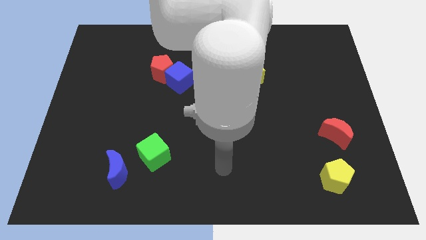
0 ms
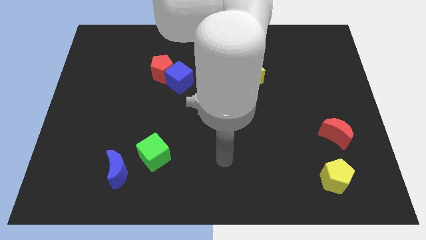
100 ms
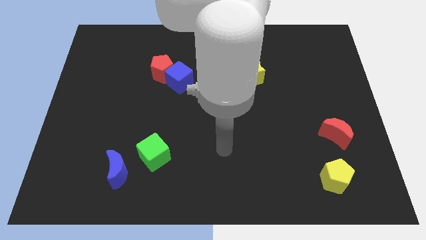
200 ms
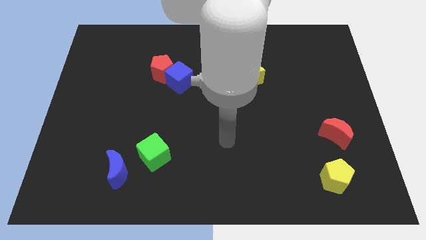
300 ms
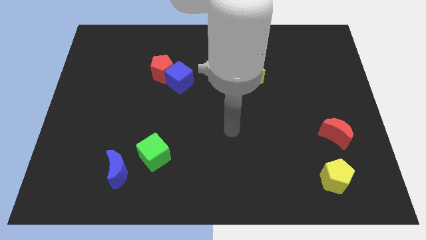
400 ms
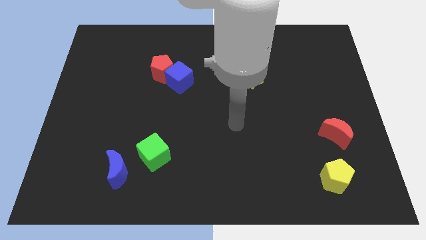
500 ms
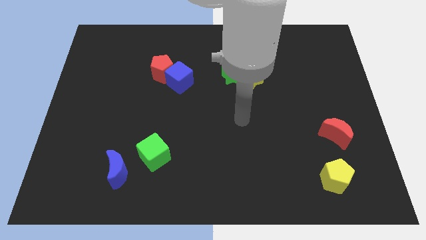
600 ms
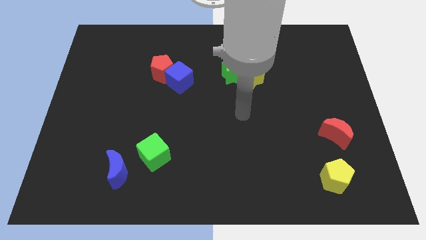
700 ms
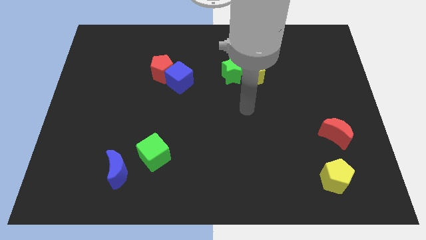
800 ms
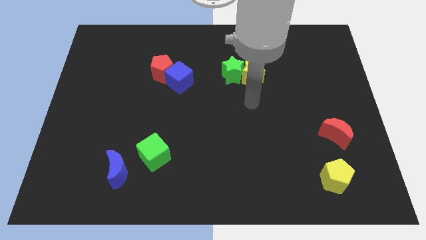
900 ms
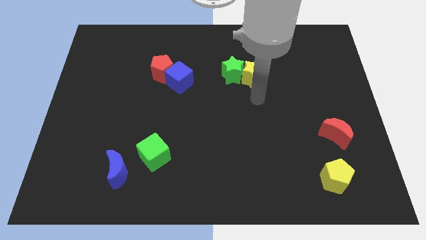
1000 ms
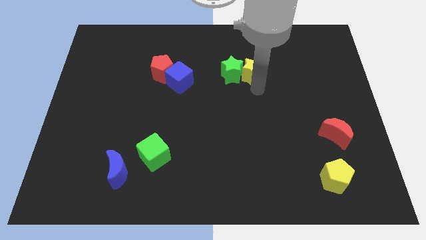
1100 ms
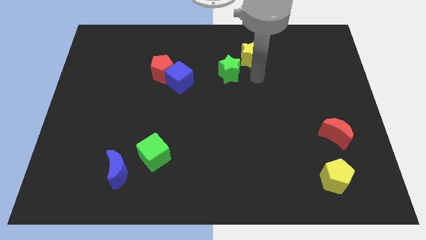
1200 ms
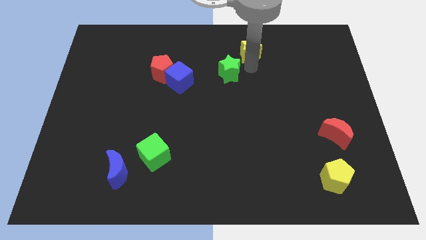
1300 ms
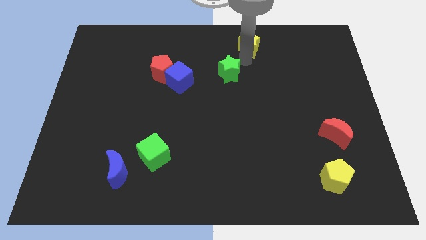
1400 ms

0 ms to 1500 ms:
pull the green star apart from the yellow star

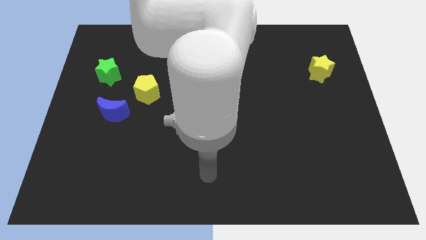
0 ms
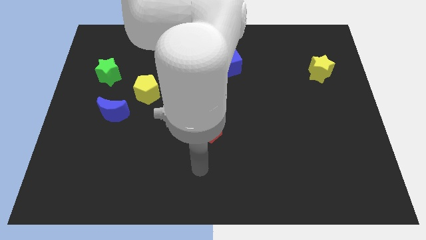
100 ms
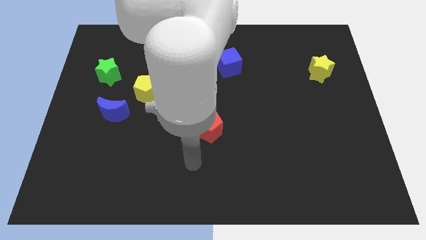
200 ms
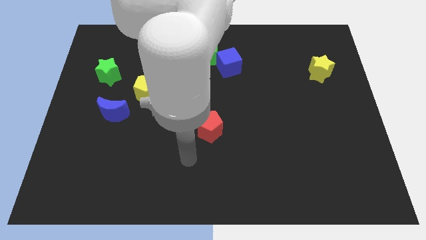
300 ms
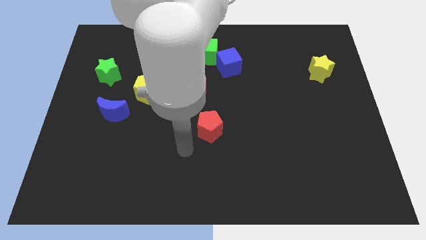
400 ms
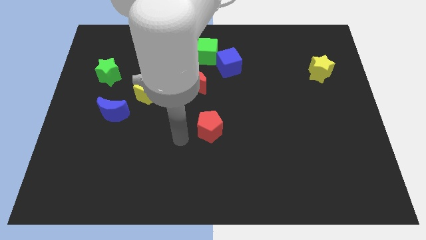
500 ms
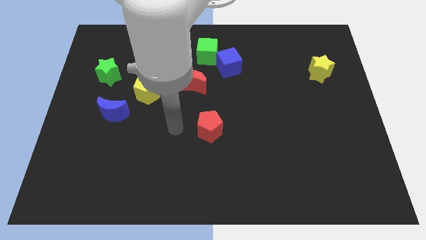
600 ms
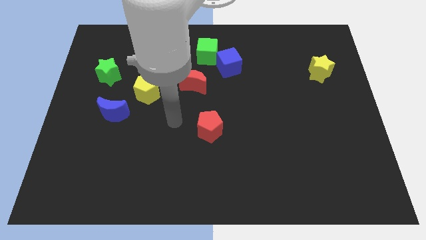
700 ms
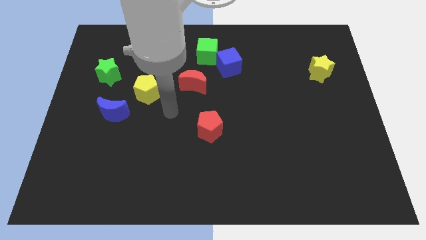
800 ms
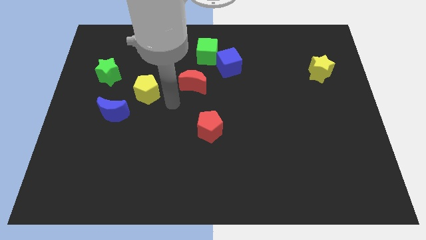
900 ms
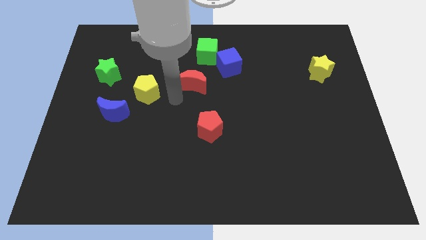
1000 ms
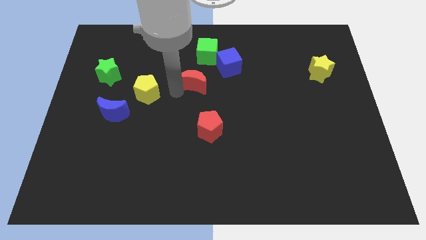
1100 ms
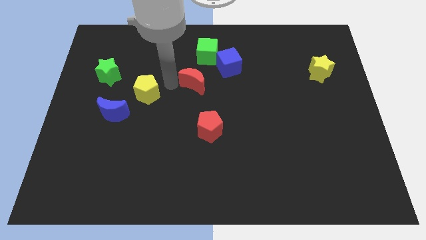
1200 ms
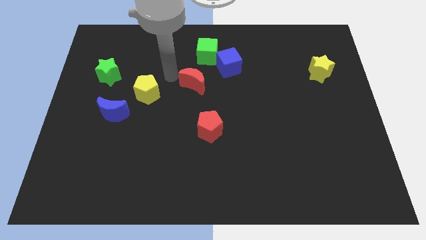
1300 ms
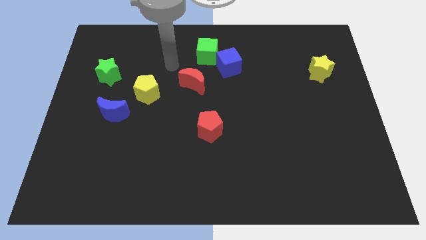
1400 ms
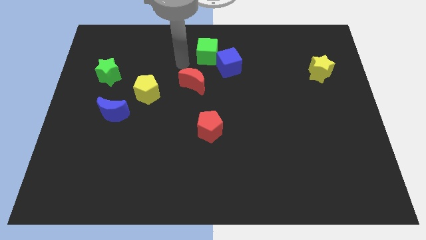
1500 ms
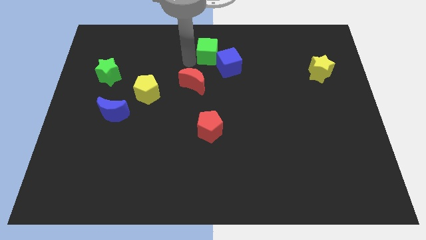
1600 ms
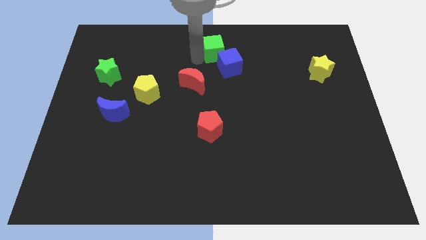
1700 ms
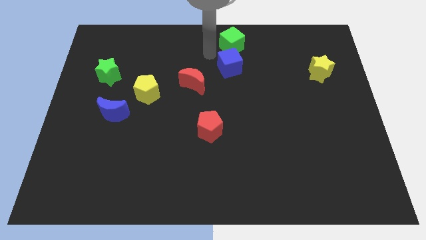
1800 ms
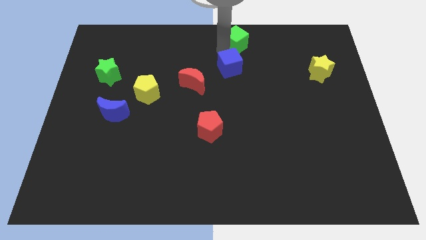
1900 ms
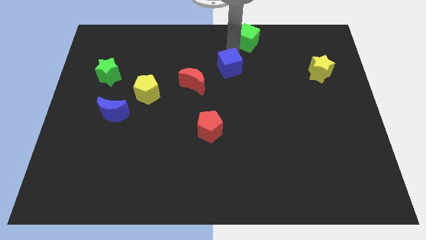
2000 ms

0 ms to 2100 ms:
pull the blue cube apart from the green cube

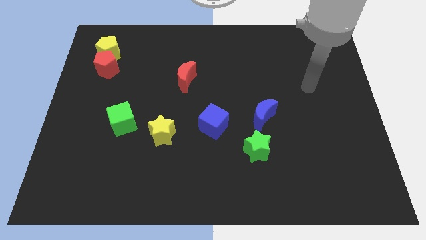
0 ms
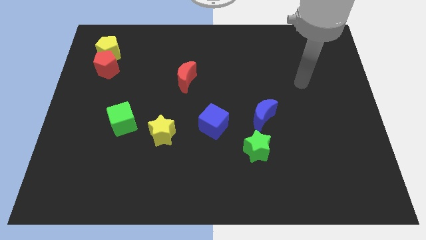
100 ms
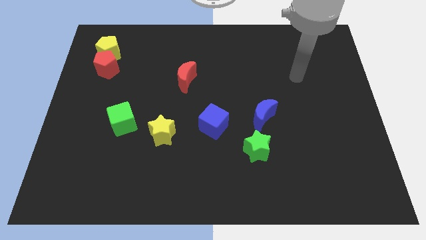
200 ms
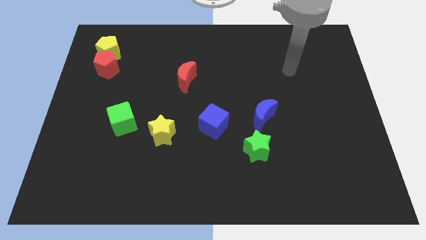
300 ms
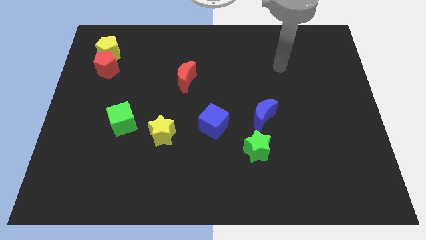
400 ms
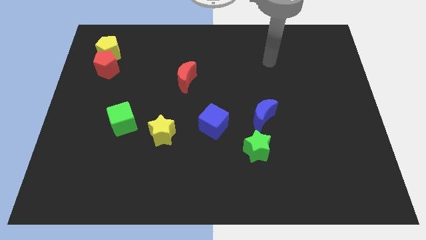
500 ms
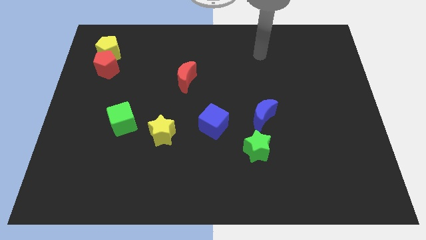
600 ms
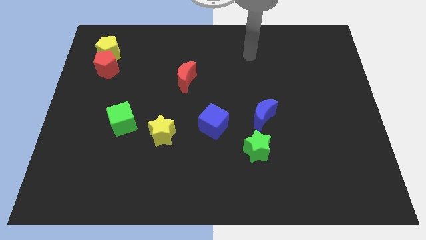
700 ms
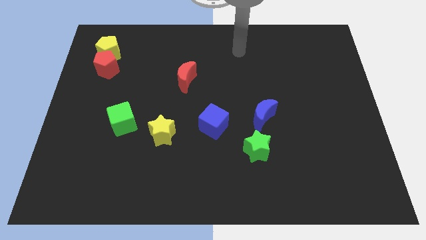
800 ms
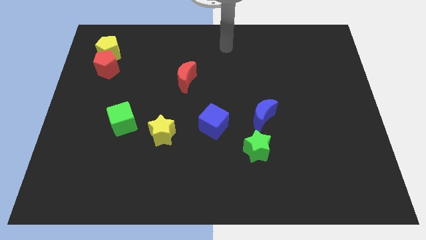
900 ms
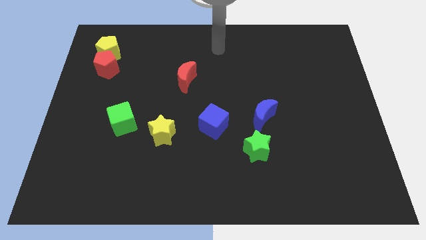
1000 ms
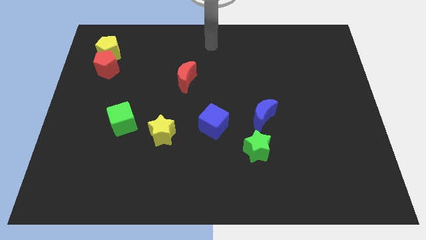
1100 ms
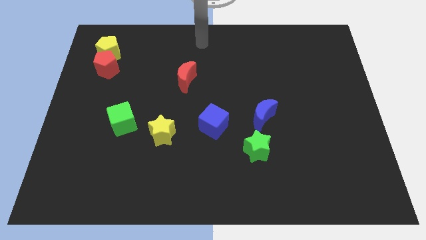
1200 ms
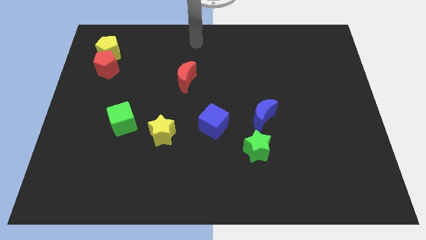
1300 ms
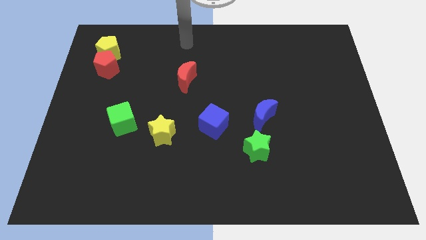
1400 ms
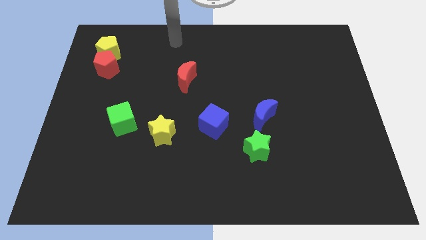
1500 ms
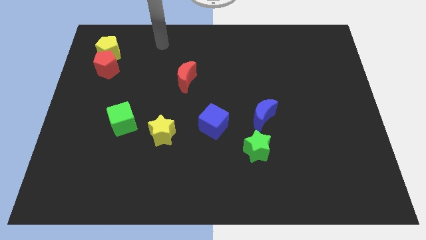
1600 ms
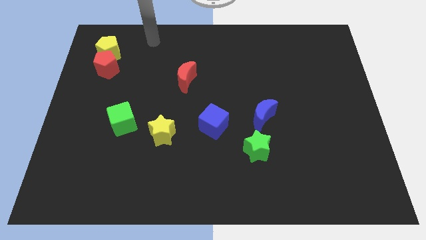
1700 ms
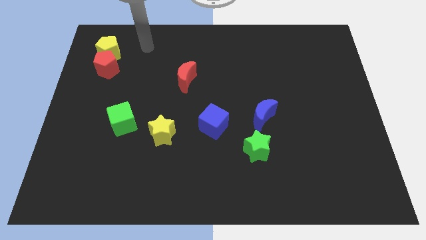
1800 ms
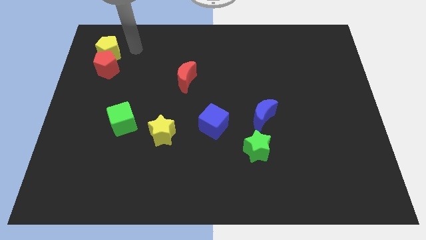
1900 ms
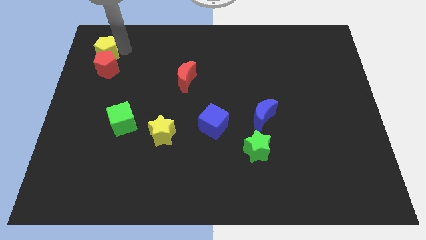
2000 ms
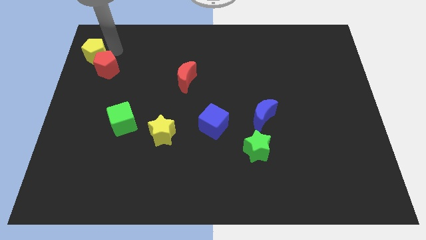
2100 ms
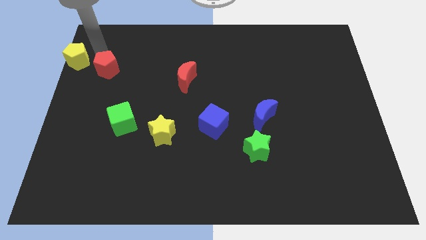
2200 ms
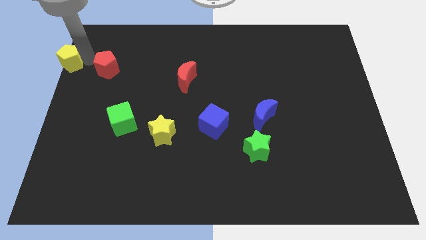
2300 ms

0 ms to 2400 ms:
move the red pentagon away from the yellow pentagon

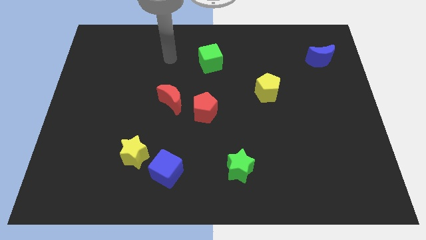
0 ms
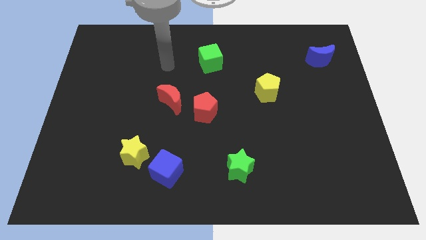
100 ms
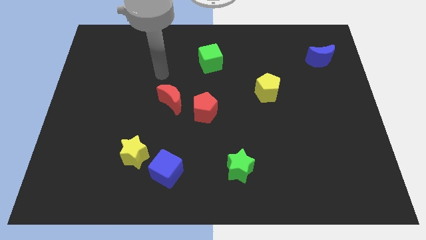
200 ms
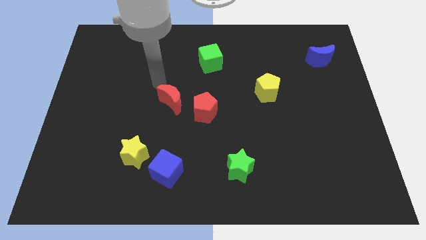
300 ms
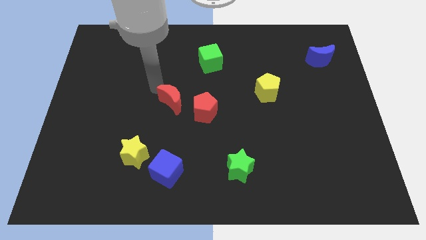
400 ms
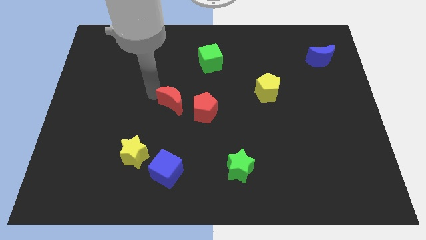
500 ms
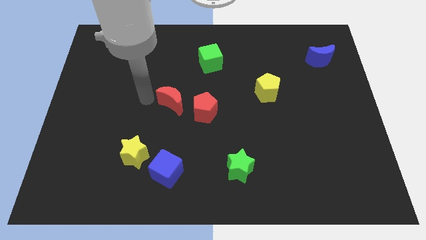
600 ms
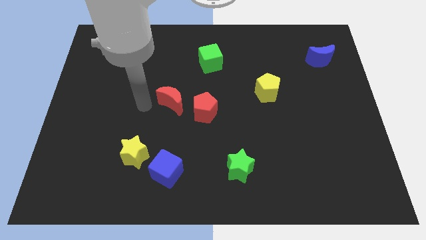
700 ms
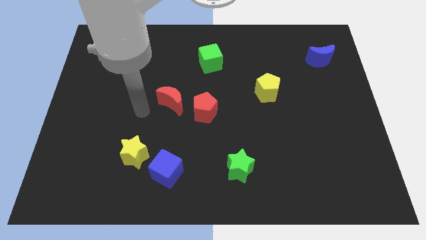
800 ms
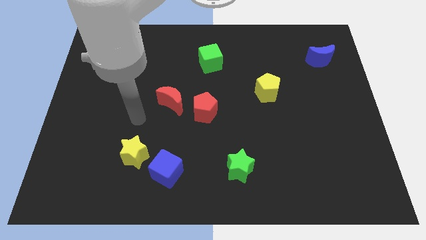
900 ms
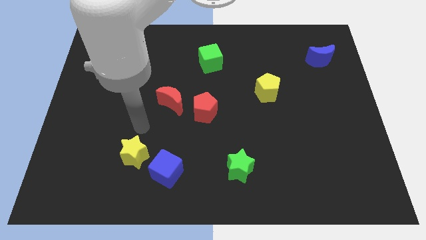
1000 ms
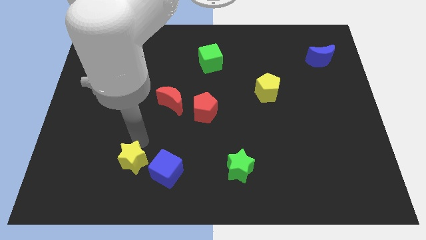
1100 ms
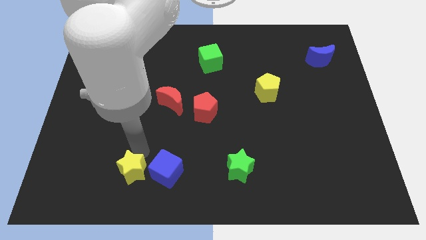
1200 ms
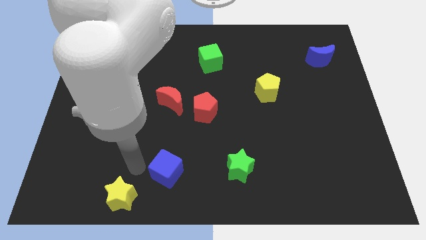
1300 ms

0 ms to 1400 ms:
move the blue cube away from the yellow star

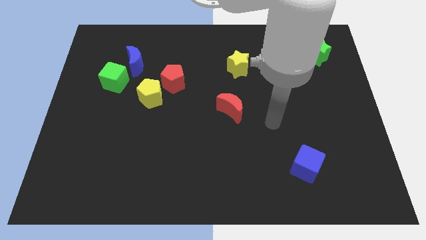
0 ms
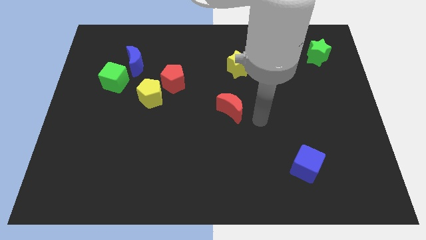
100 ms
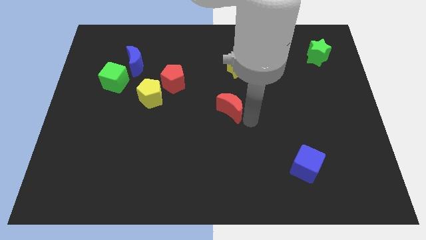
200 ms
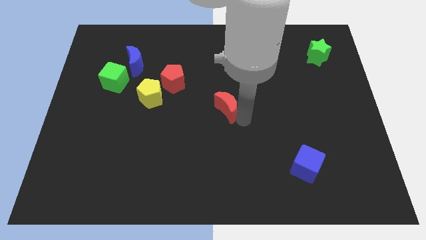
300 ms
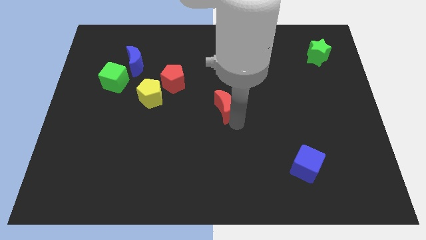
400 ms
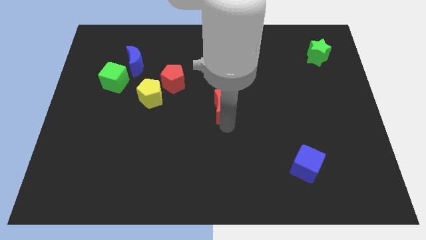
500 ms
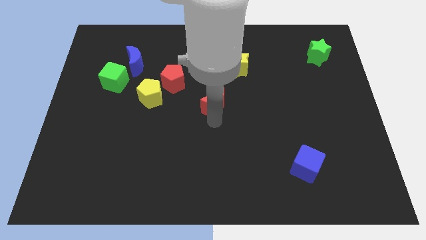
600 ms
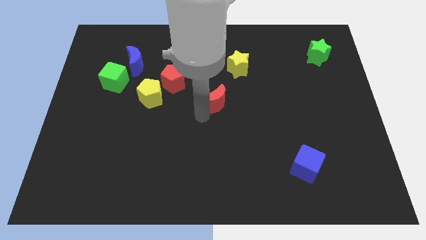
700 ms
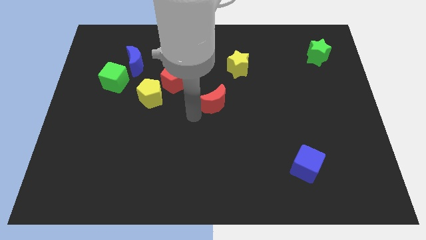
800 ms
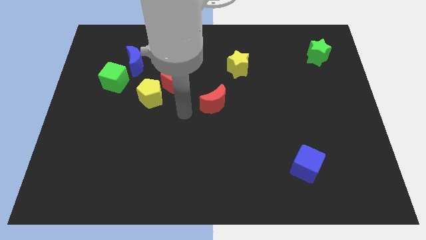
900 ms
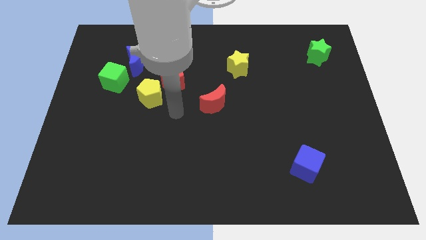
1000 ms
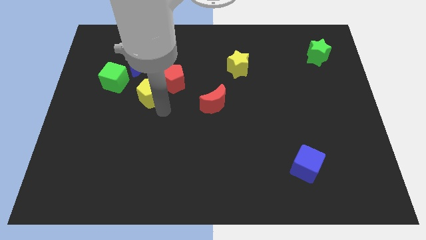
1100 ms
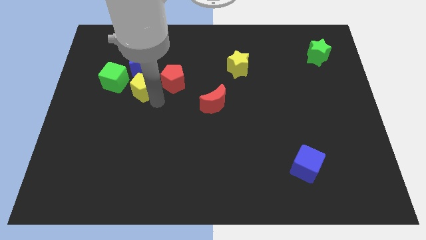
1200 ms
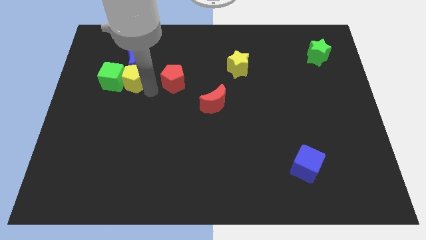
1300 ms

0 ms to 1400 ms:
separate the red pentagon from the yellow pentagon

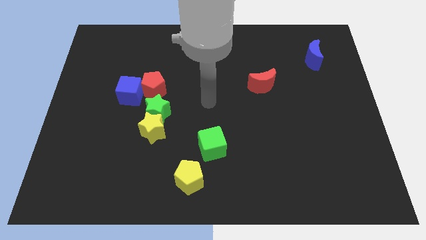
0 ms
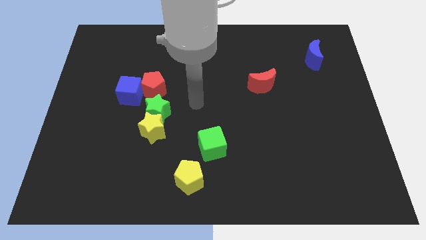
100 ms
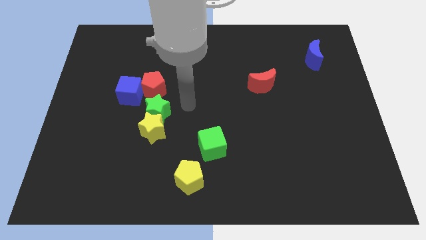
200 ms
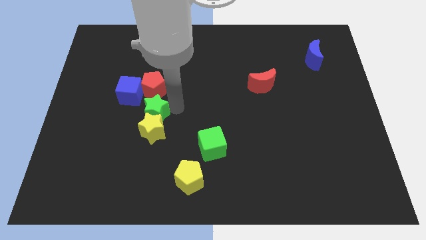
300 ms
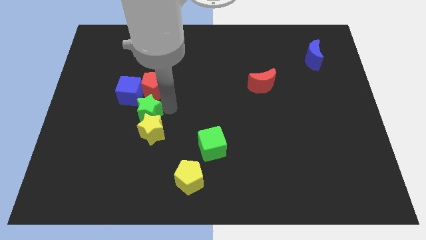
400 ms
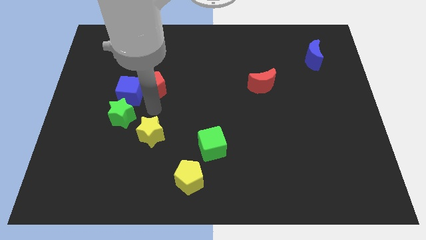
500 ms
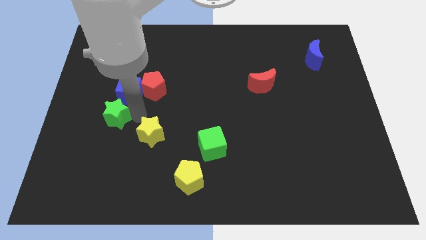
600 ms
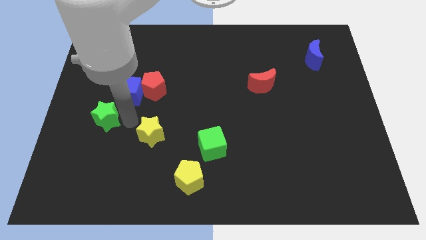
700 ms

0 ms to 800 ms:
separate the yellow star from the green star
